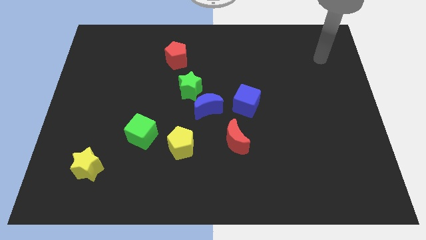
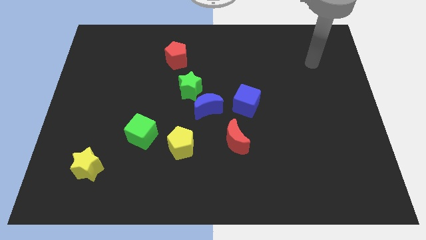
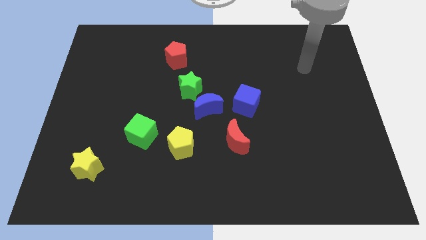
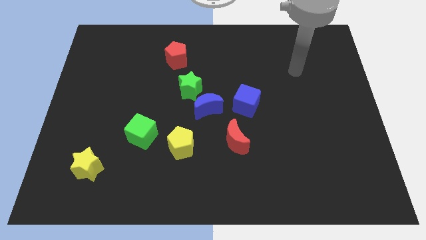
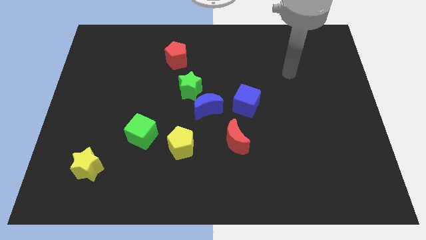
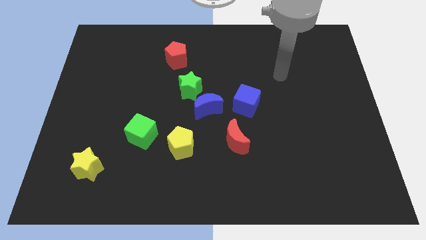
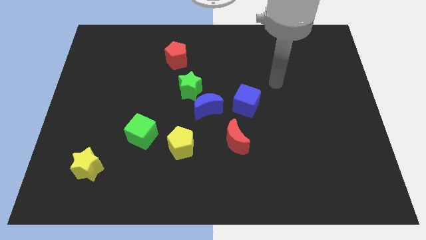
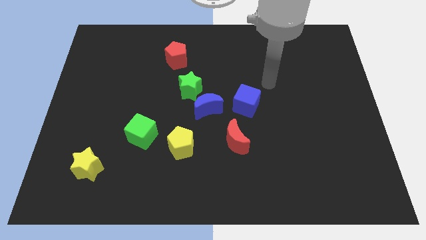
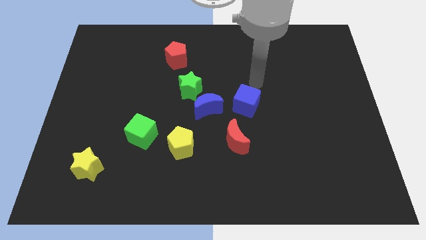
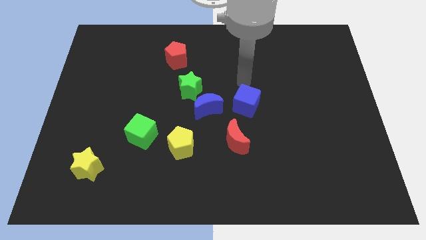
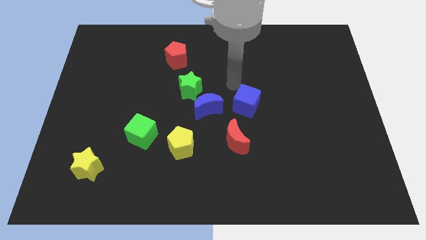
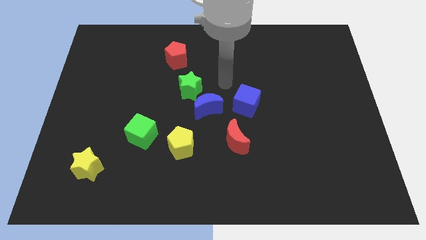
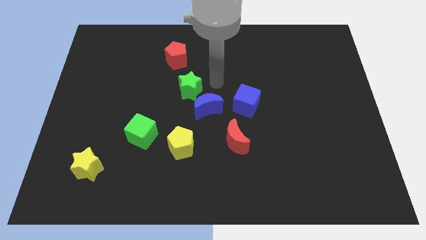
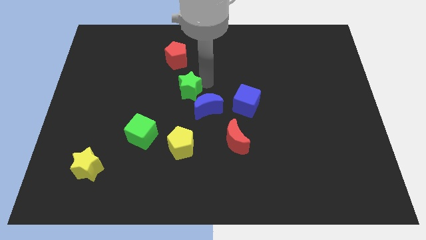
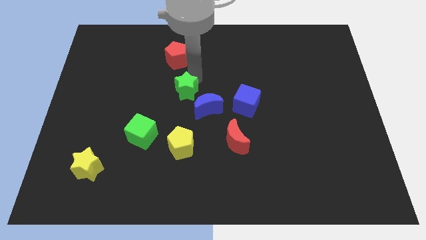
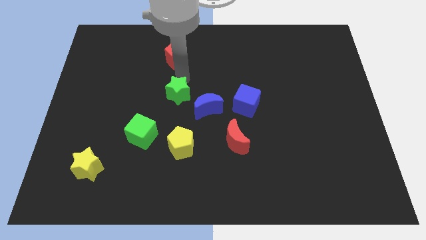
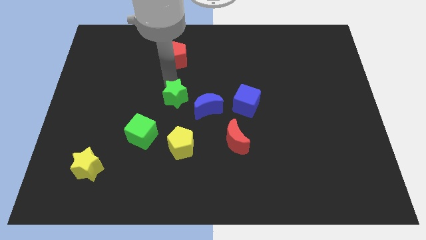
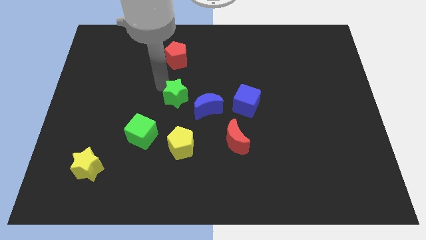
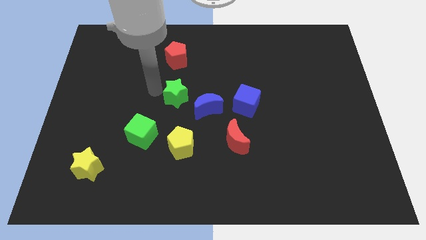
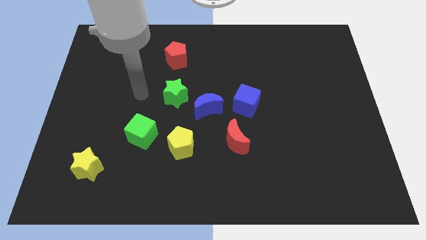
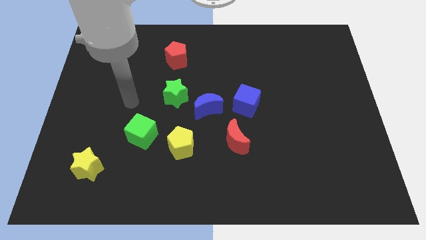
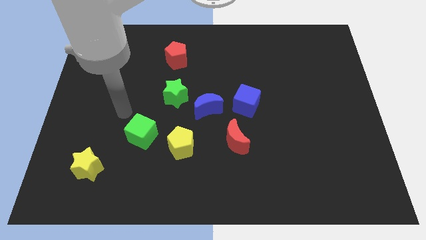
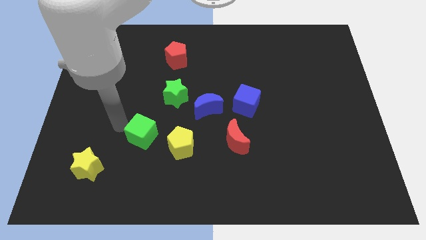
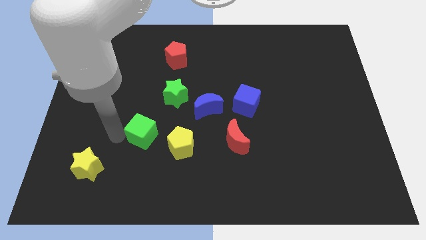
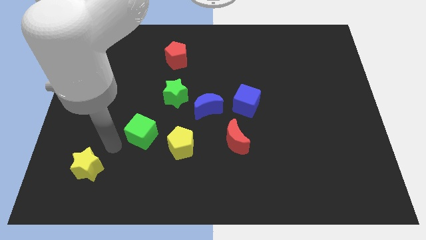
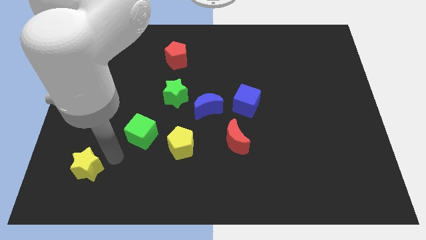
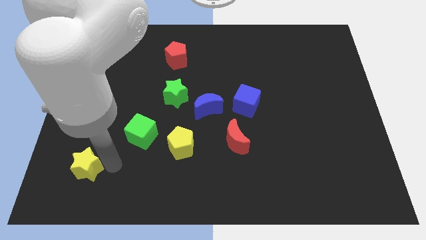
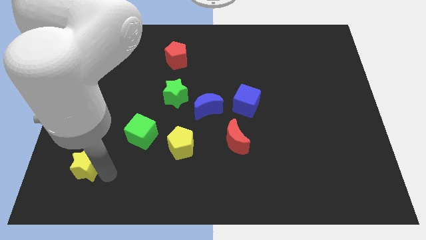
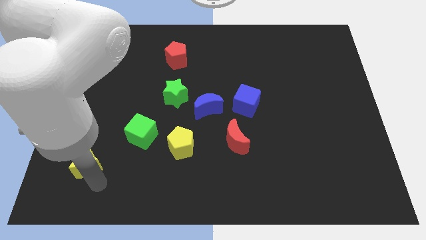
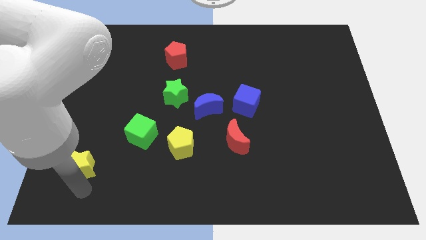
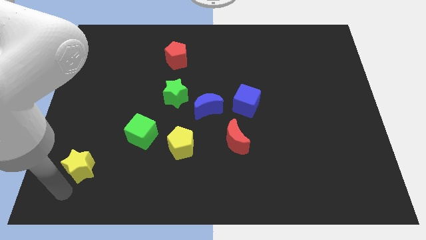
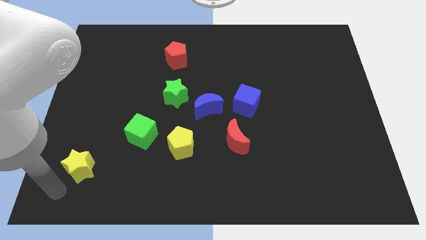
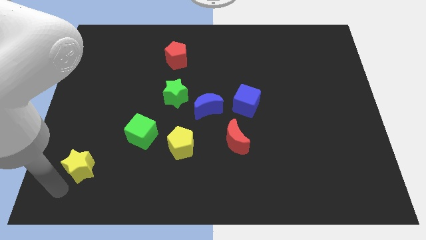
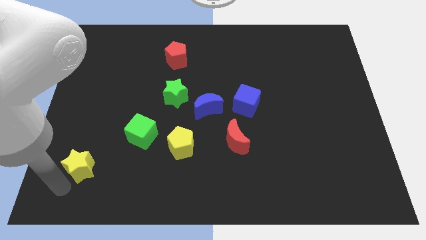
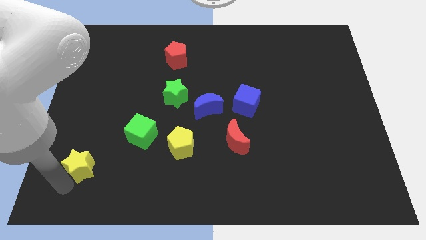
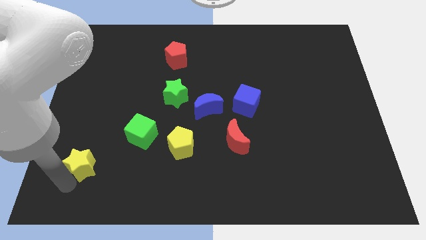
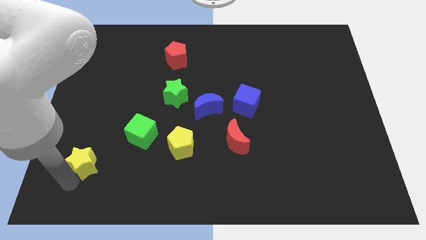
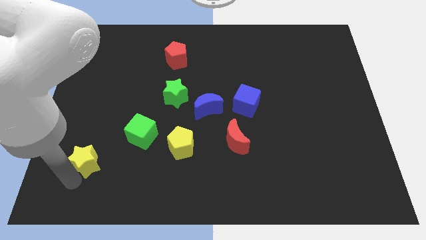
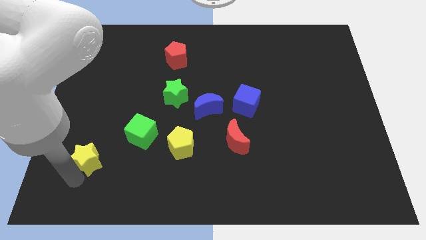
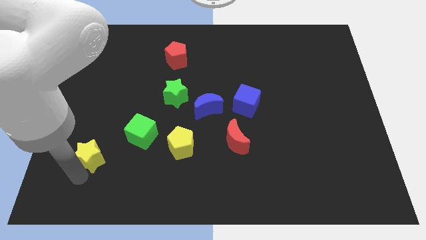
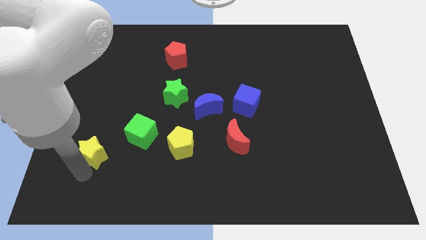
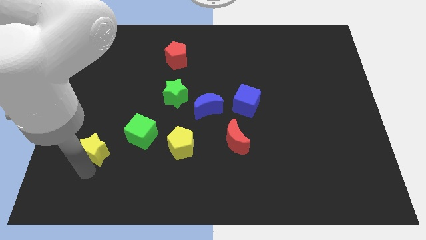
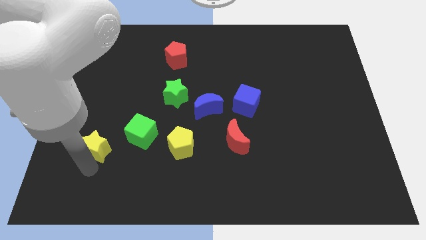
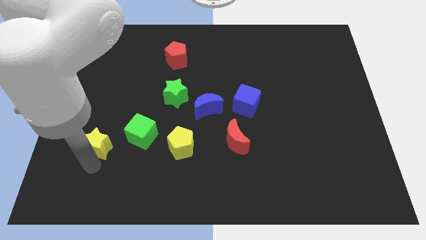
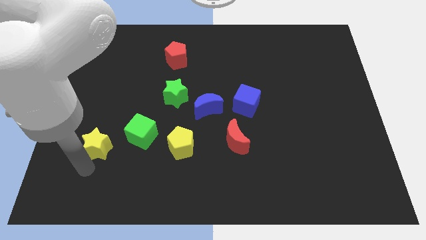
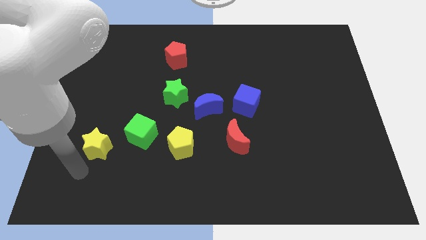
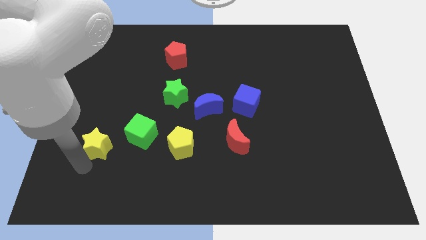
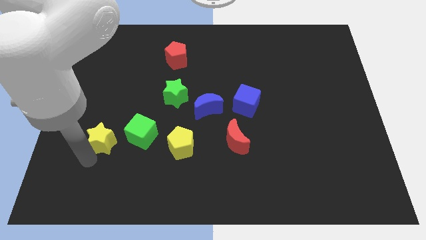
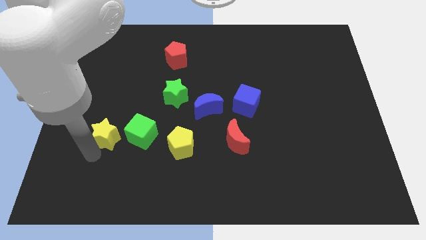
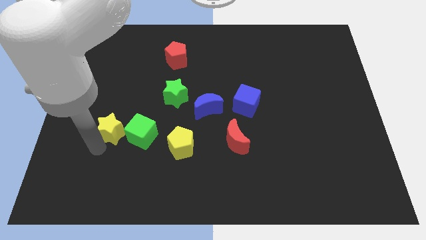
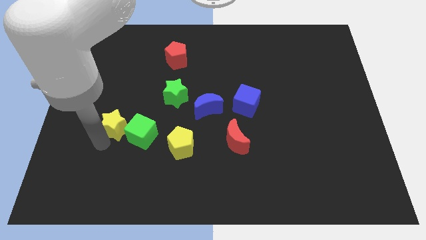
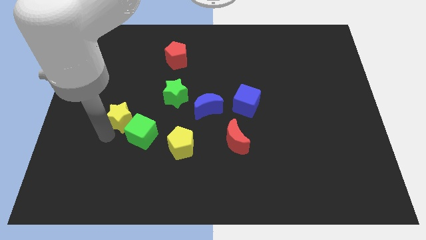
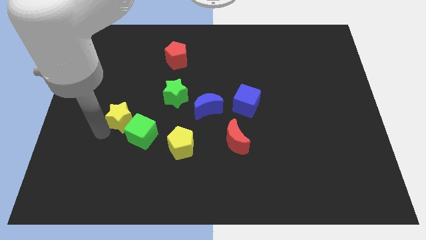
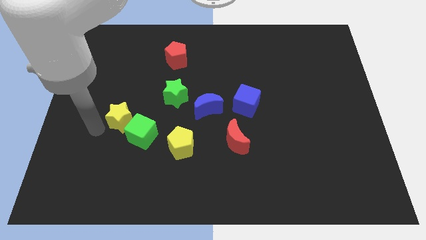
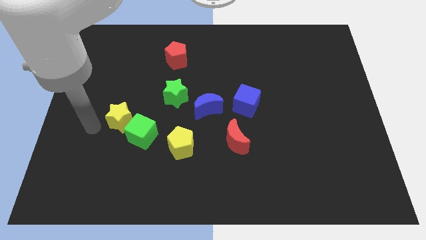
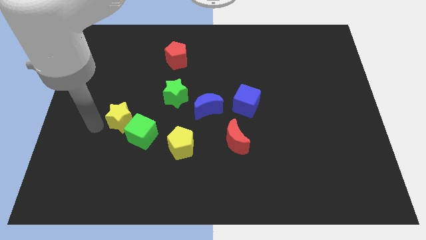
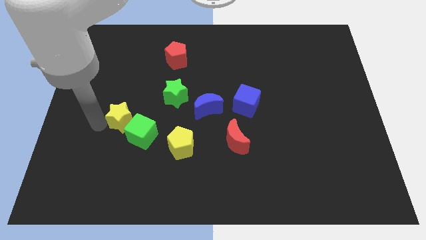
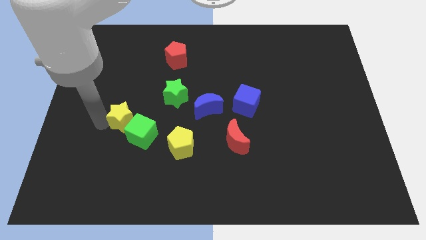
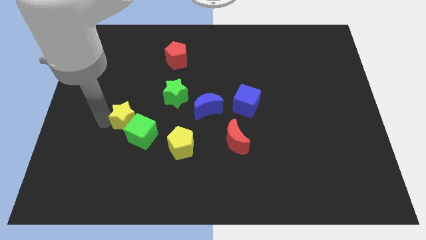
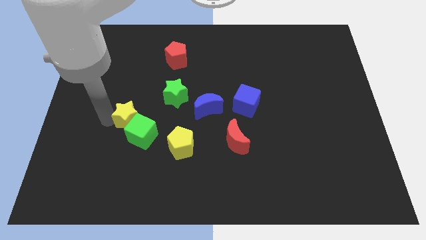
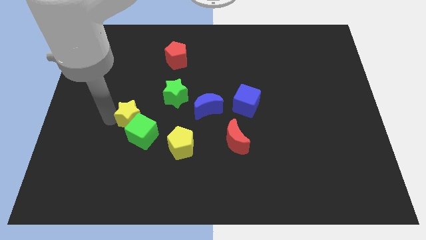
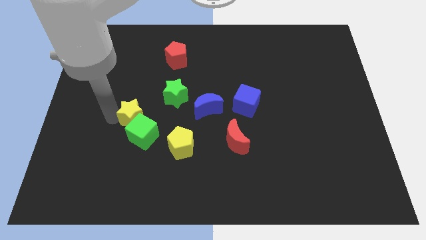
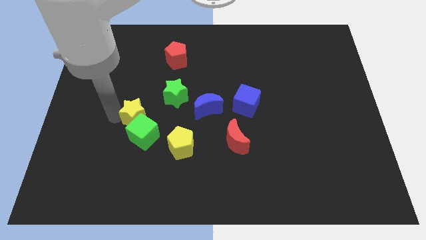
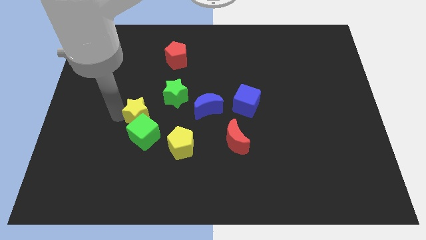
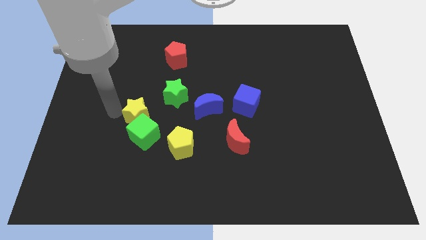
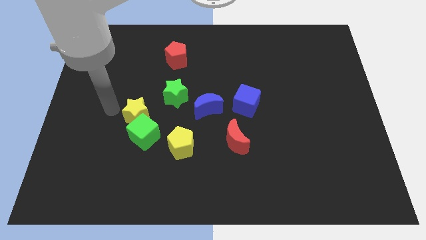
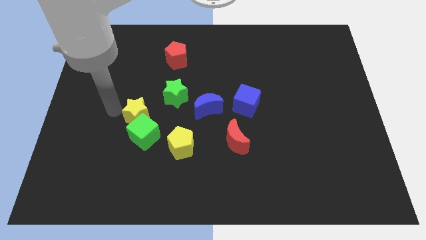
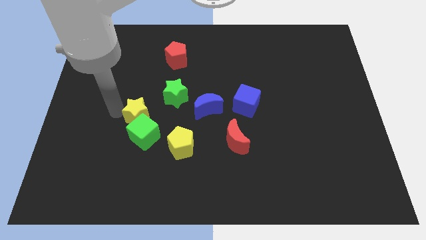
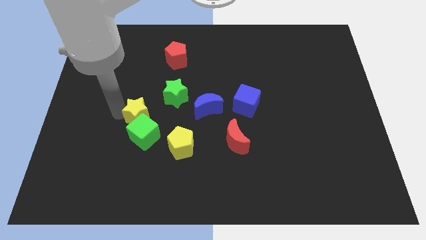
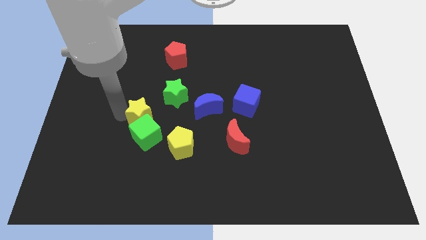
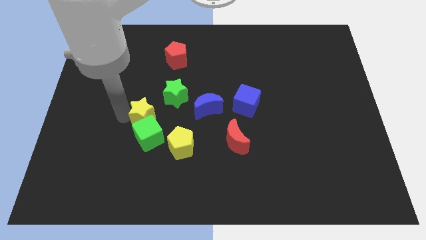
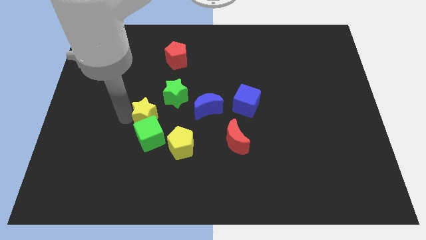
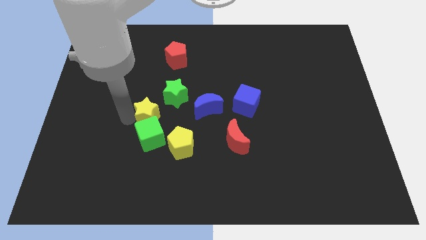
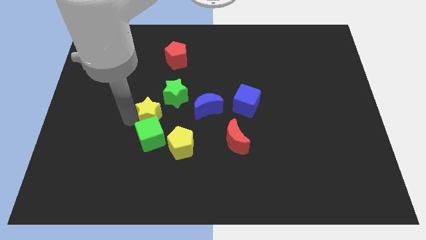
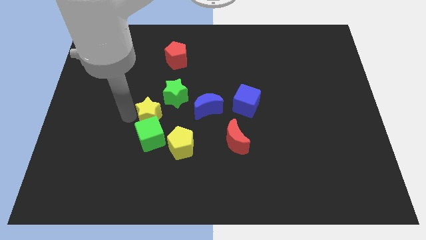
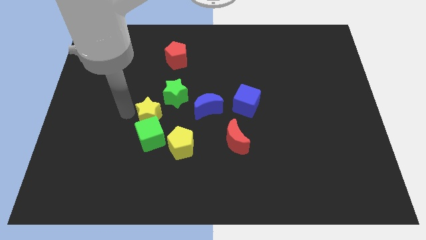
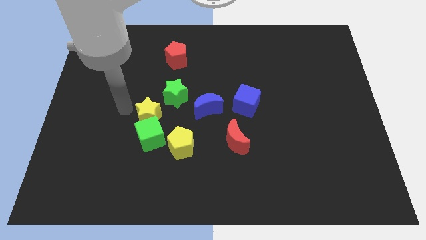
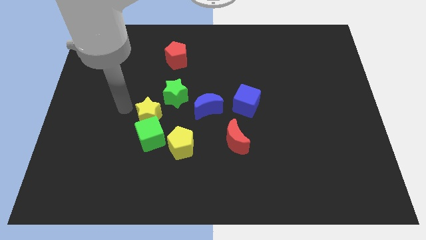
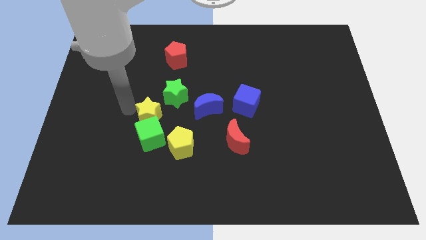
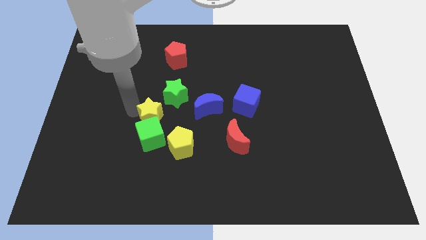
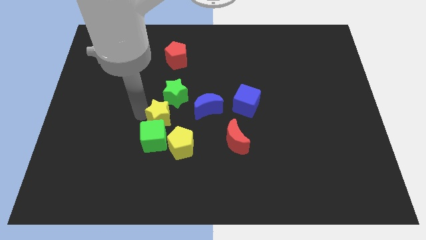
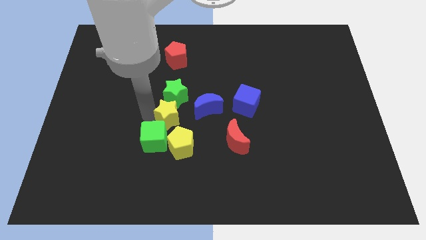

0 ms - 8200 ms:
slide the yellow star to the bottom left of the blue moon
